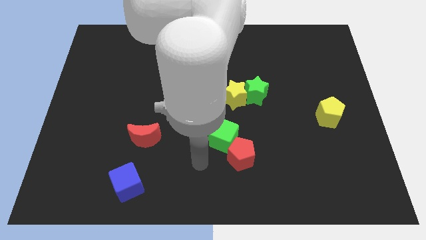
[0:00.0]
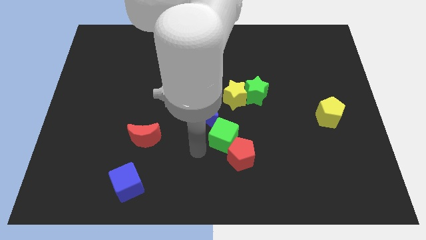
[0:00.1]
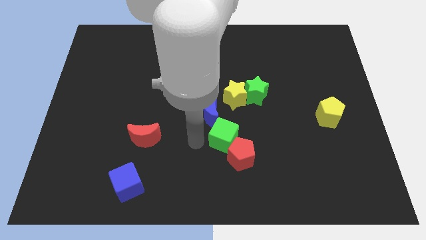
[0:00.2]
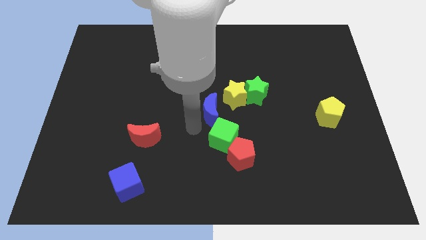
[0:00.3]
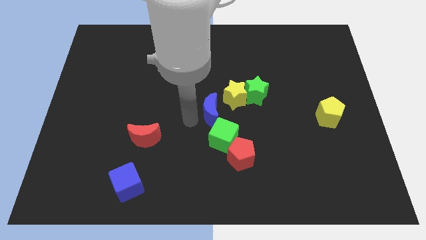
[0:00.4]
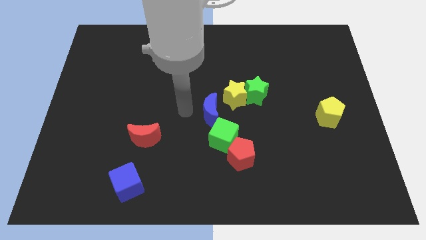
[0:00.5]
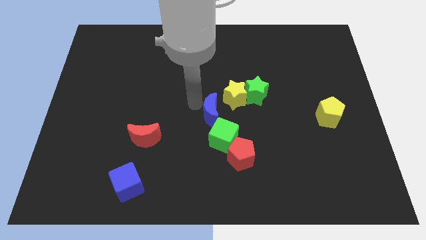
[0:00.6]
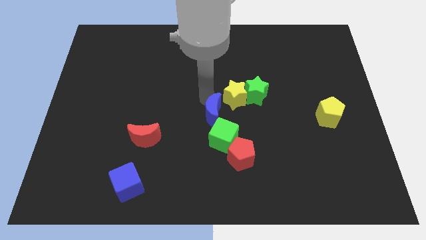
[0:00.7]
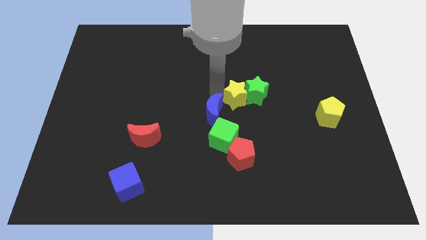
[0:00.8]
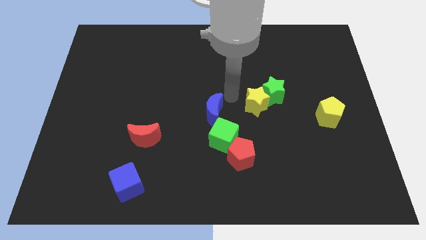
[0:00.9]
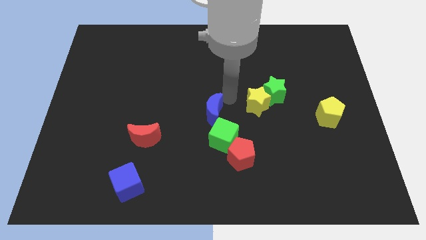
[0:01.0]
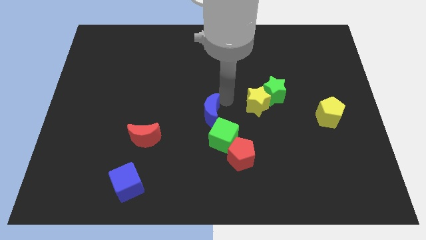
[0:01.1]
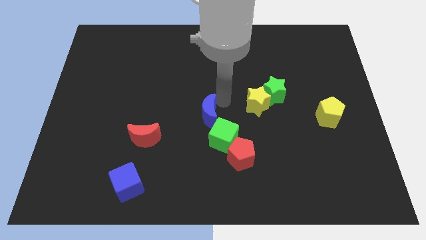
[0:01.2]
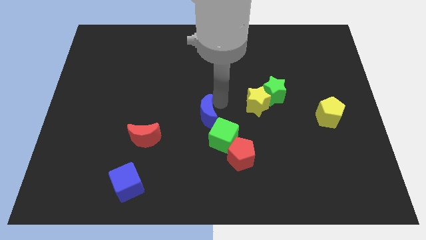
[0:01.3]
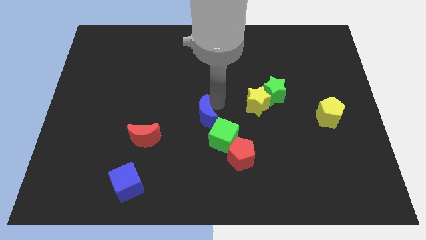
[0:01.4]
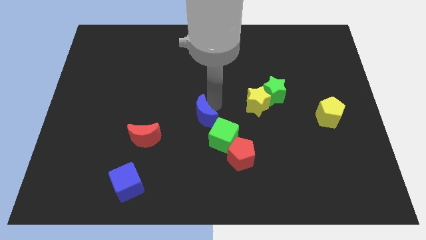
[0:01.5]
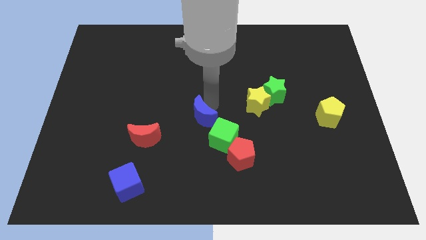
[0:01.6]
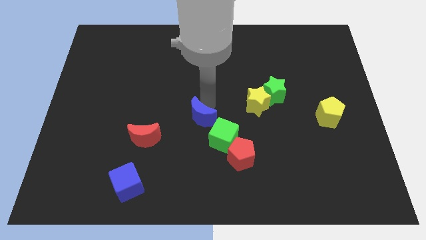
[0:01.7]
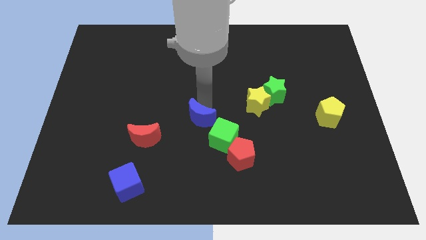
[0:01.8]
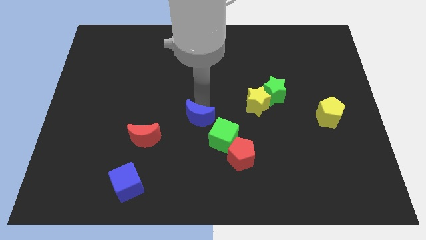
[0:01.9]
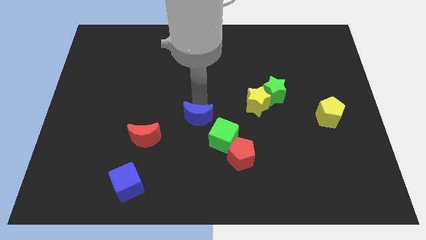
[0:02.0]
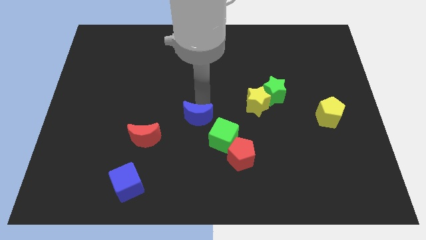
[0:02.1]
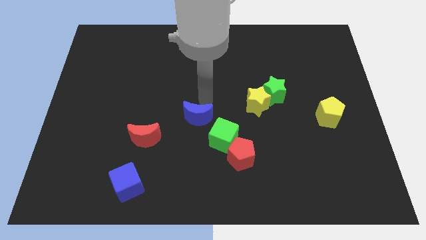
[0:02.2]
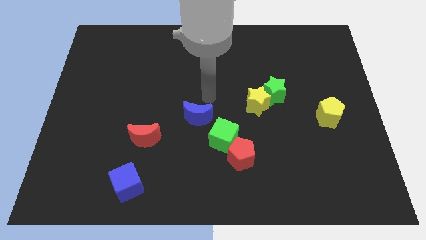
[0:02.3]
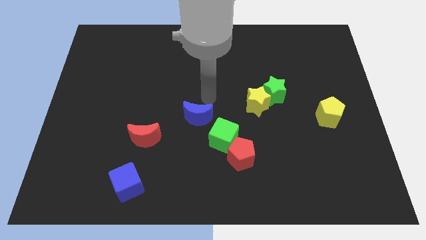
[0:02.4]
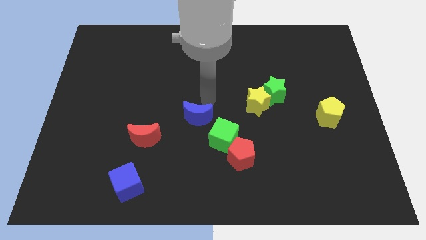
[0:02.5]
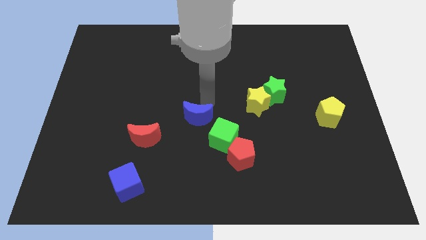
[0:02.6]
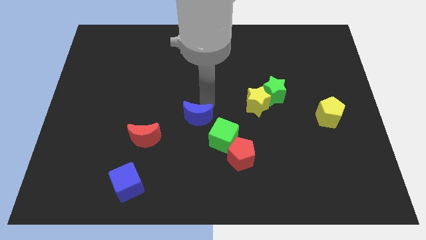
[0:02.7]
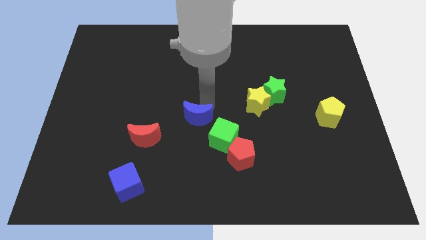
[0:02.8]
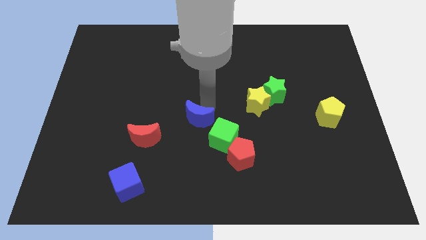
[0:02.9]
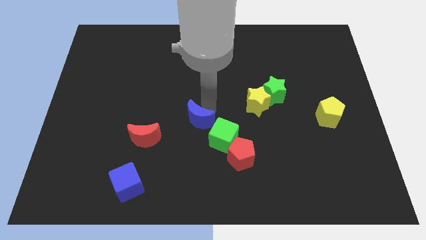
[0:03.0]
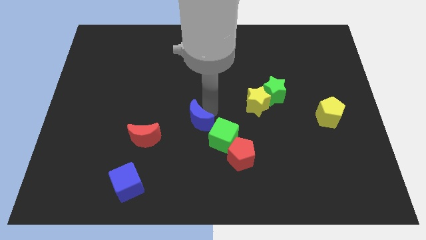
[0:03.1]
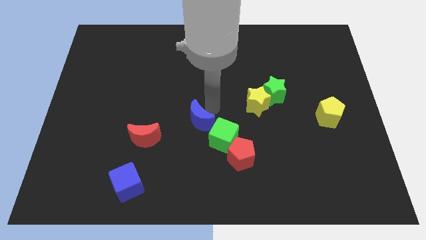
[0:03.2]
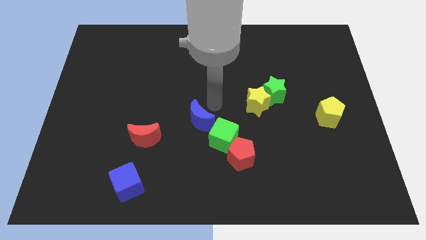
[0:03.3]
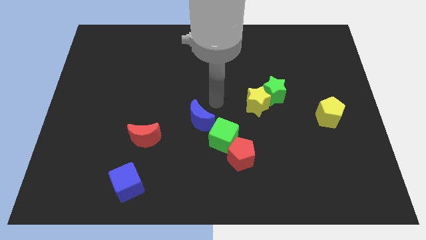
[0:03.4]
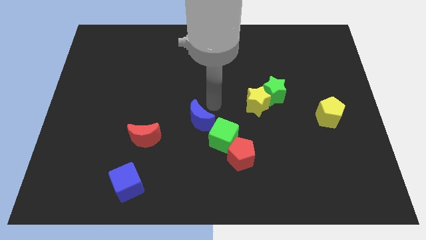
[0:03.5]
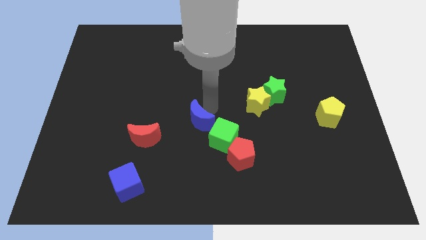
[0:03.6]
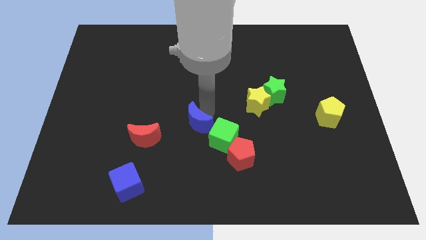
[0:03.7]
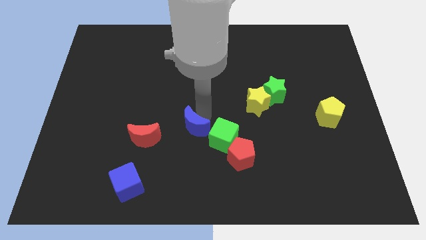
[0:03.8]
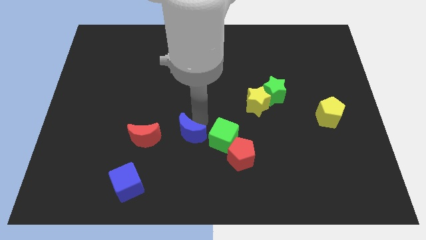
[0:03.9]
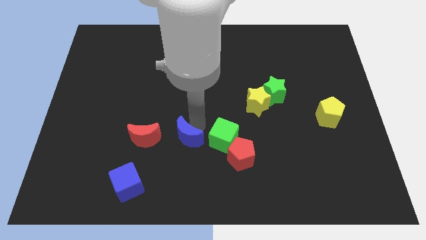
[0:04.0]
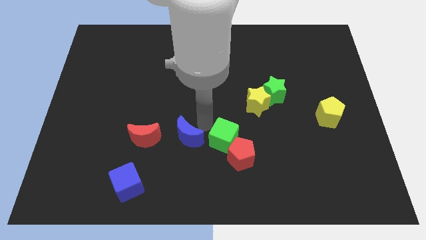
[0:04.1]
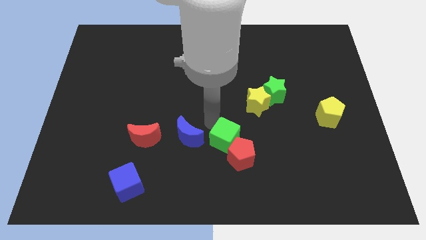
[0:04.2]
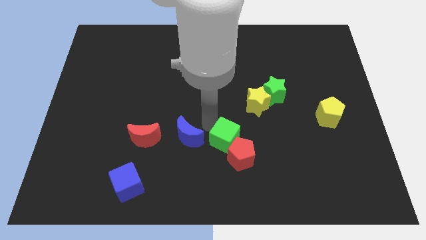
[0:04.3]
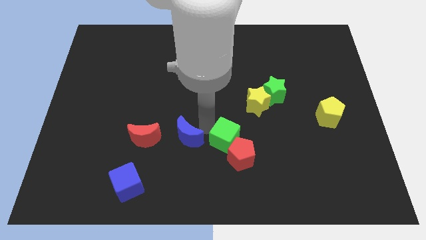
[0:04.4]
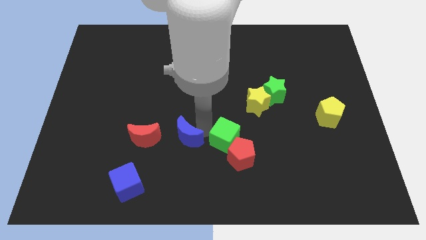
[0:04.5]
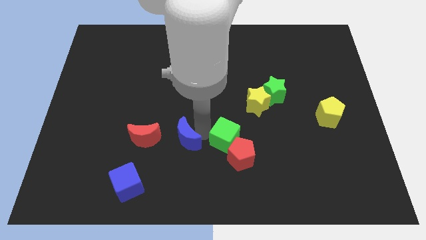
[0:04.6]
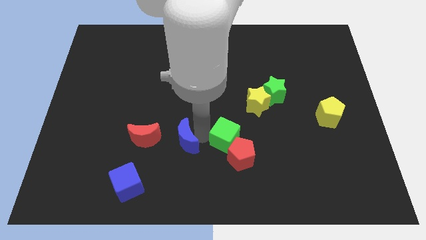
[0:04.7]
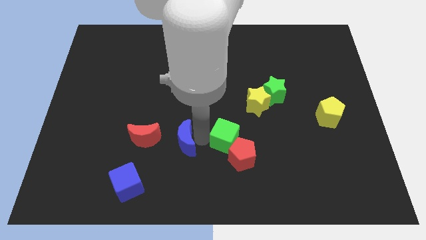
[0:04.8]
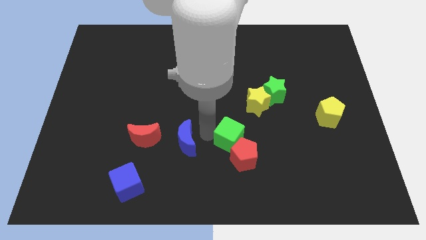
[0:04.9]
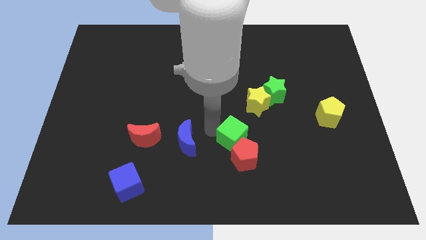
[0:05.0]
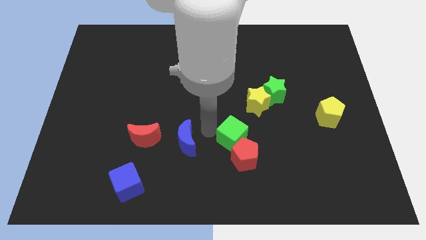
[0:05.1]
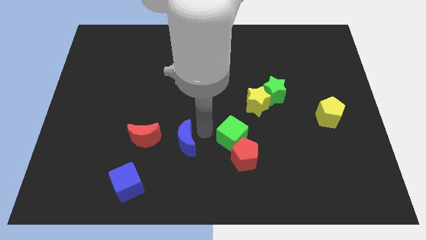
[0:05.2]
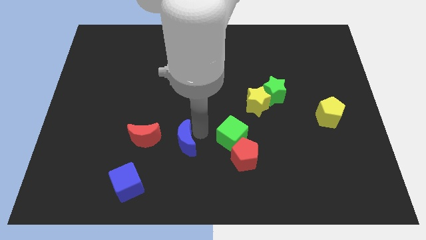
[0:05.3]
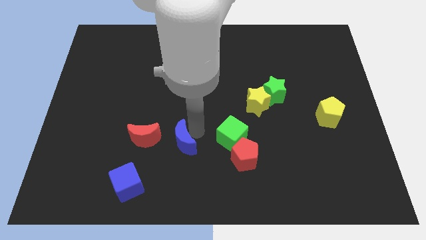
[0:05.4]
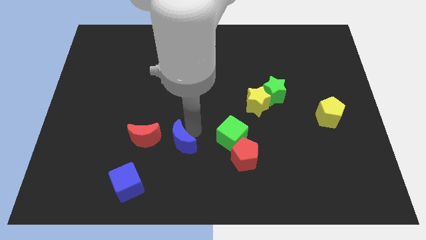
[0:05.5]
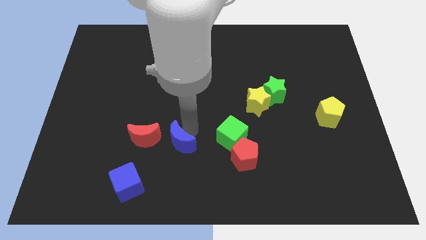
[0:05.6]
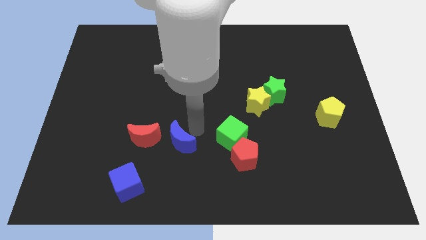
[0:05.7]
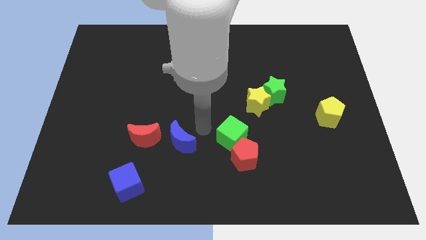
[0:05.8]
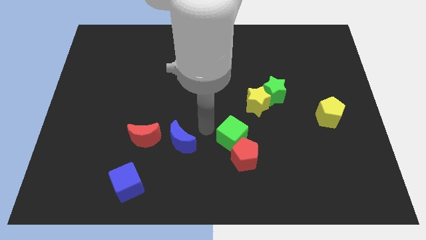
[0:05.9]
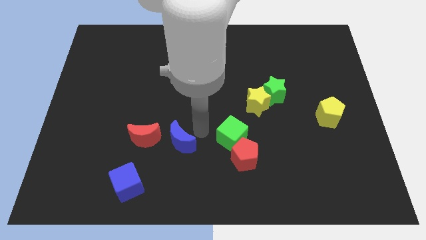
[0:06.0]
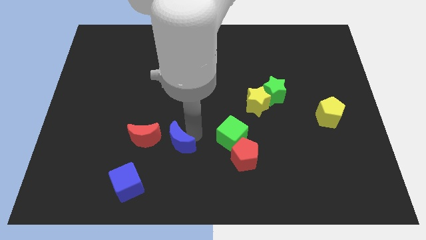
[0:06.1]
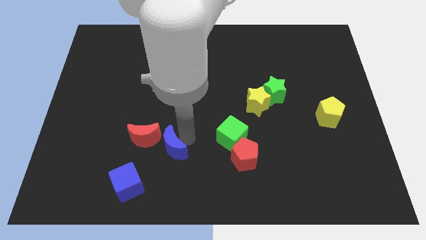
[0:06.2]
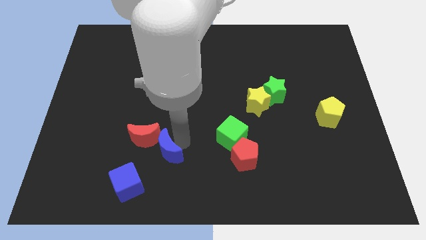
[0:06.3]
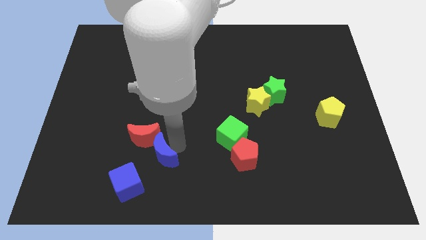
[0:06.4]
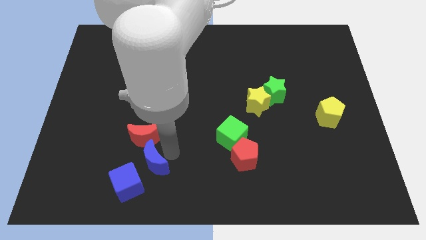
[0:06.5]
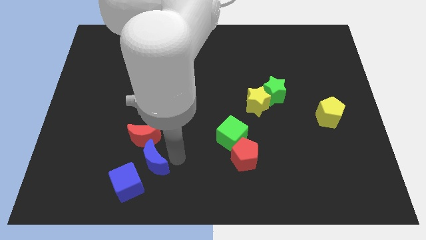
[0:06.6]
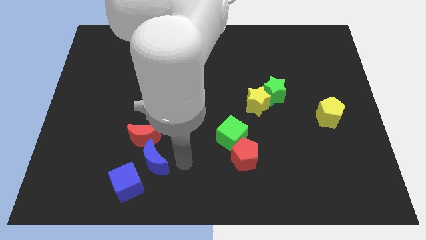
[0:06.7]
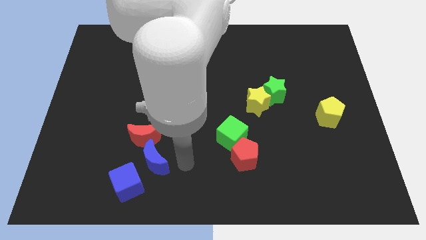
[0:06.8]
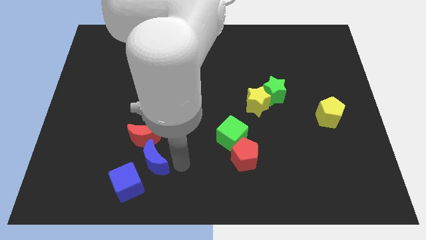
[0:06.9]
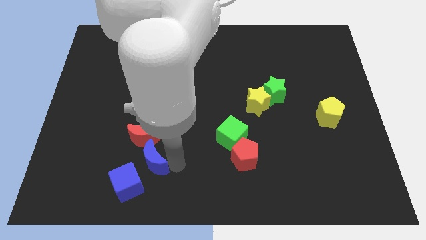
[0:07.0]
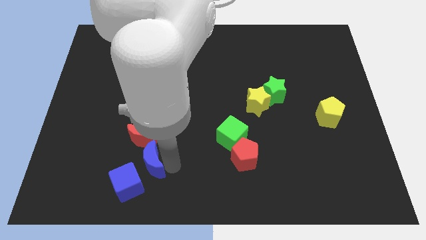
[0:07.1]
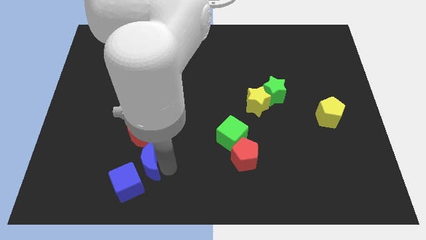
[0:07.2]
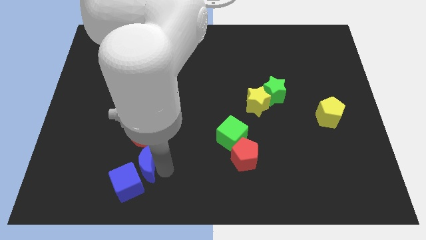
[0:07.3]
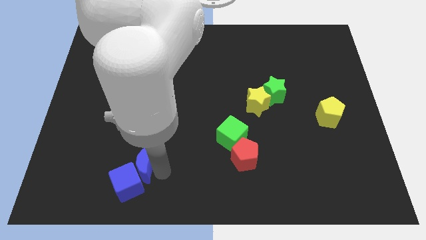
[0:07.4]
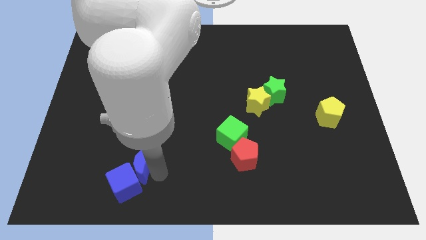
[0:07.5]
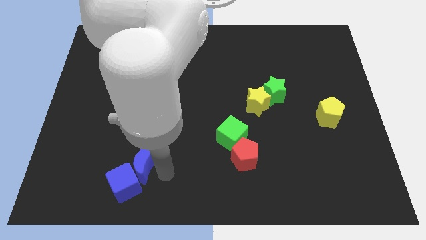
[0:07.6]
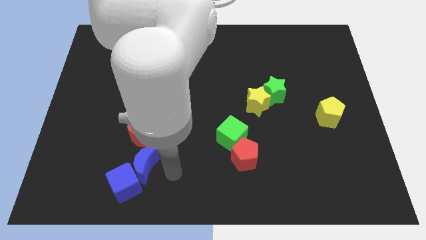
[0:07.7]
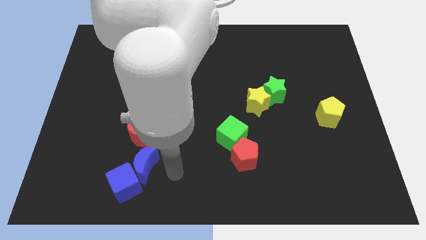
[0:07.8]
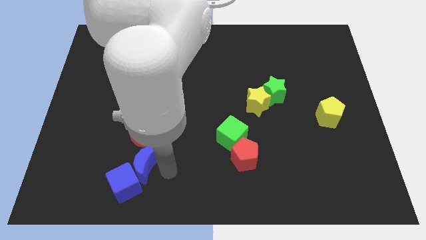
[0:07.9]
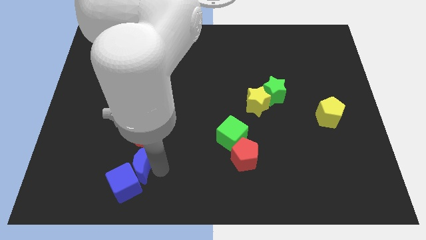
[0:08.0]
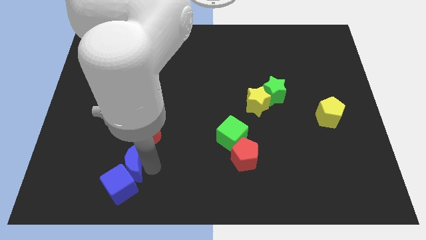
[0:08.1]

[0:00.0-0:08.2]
push the blue moon diagonally down and to the left of the red moon
